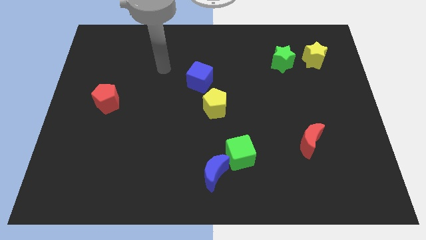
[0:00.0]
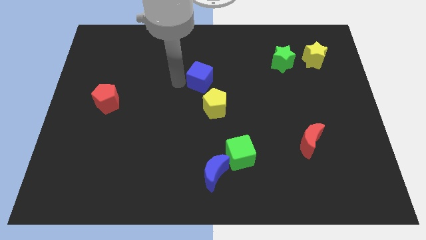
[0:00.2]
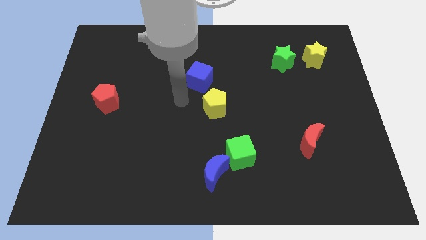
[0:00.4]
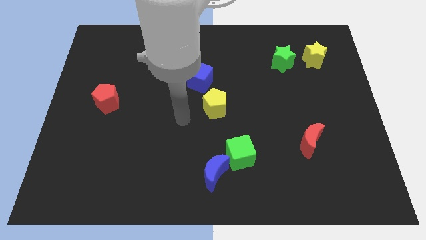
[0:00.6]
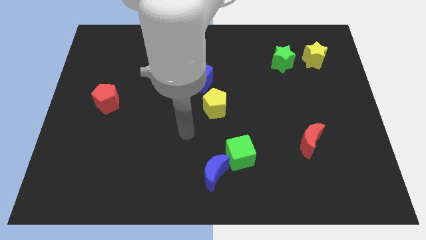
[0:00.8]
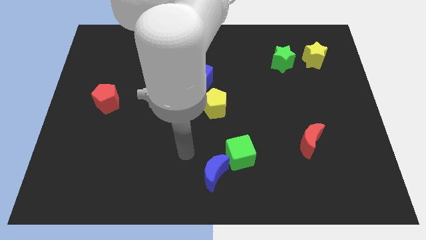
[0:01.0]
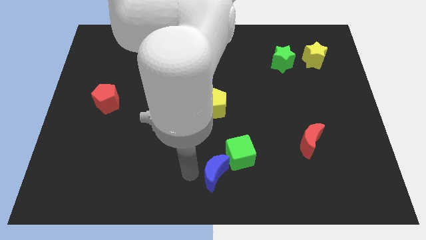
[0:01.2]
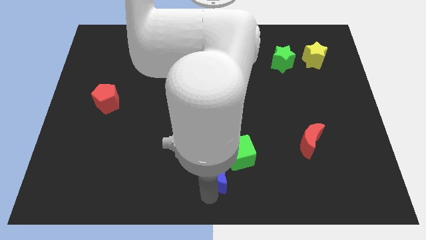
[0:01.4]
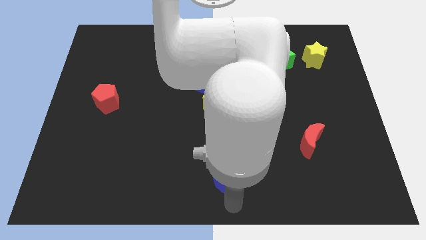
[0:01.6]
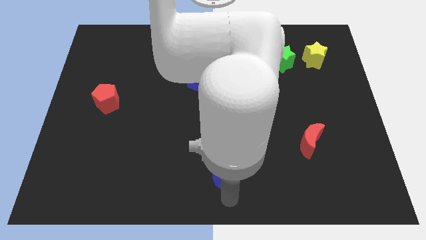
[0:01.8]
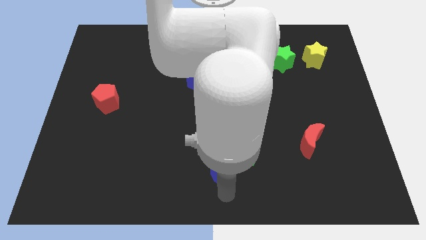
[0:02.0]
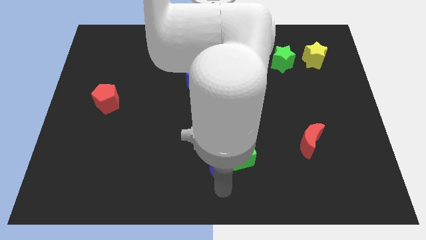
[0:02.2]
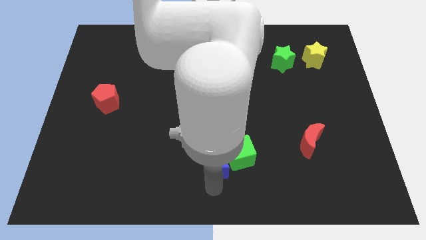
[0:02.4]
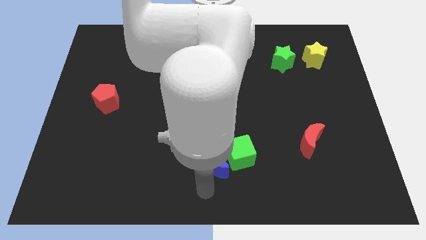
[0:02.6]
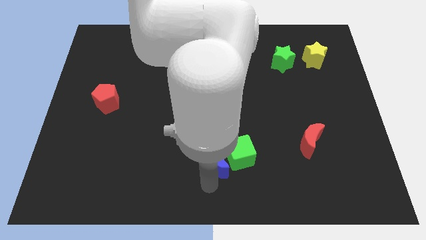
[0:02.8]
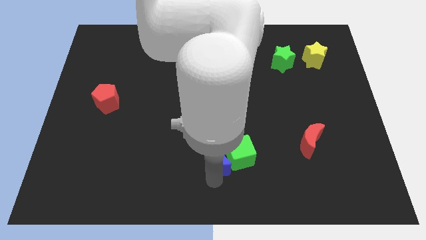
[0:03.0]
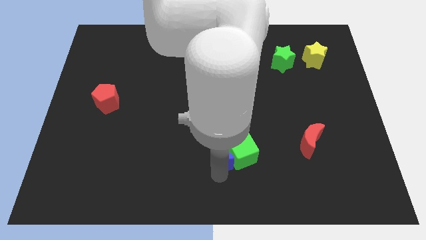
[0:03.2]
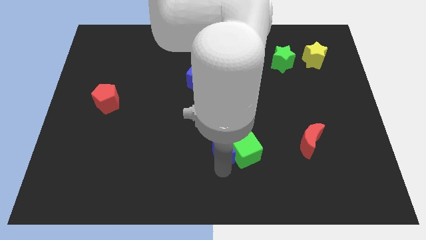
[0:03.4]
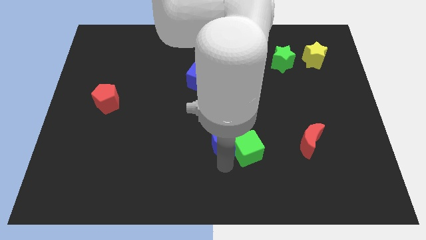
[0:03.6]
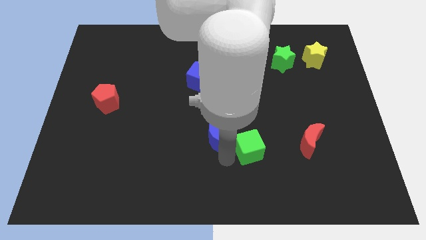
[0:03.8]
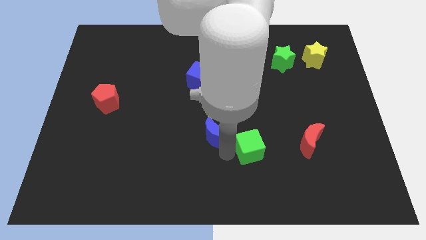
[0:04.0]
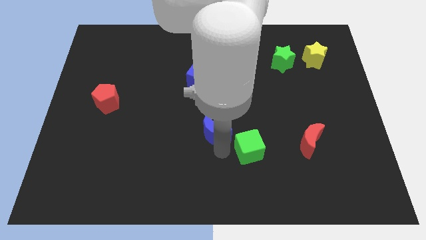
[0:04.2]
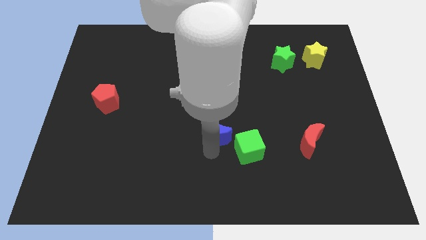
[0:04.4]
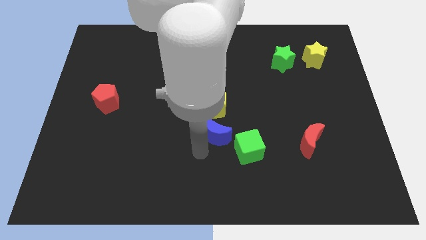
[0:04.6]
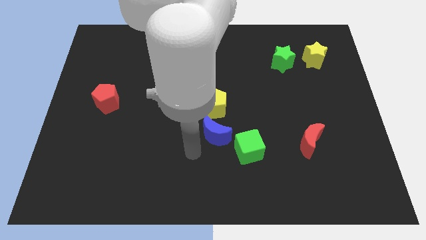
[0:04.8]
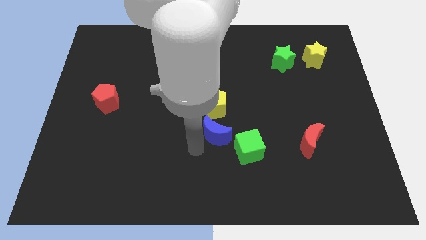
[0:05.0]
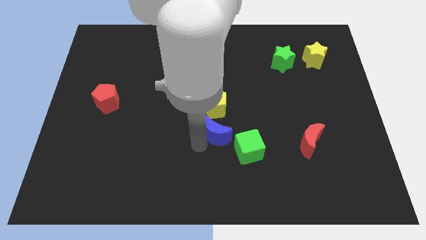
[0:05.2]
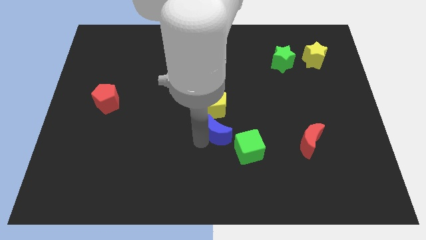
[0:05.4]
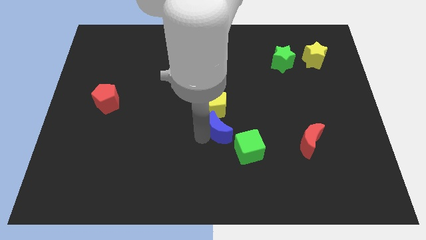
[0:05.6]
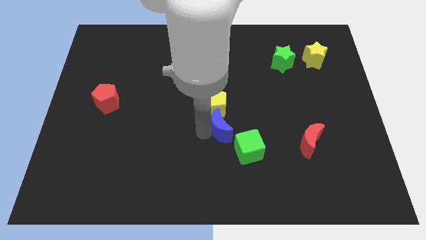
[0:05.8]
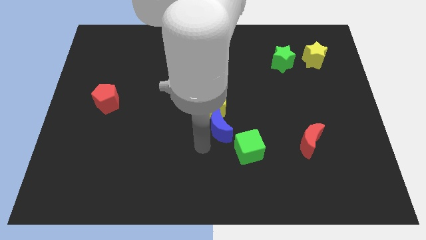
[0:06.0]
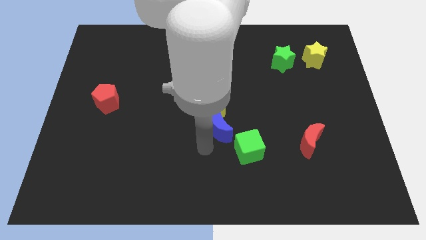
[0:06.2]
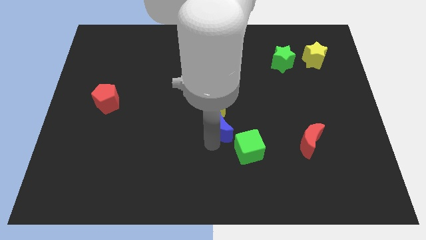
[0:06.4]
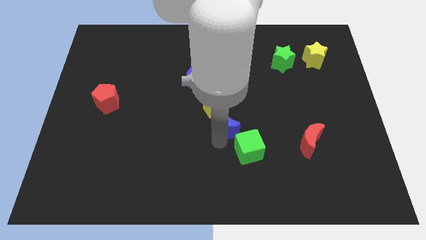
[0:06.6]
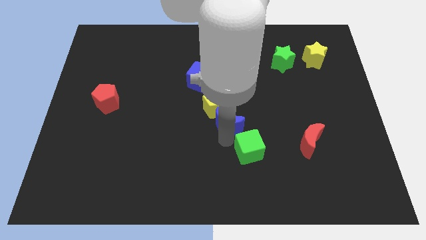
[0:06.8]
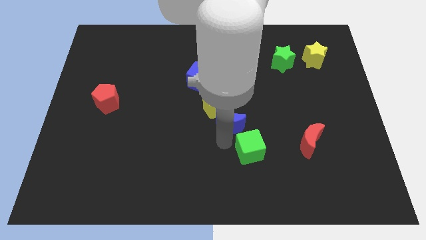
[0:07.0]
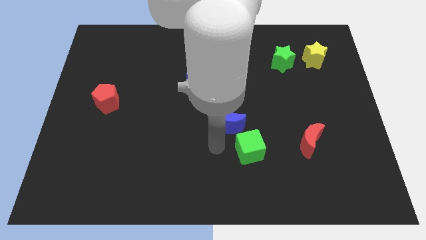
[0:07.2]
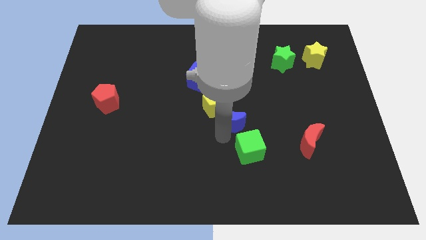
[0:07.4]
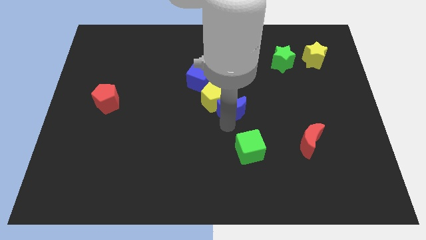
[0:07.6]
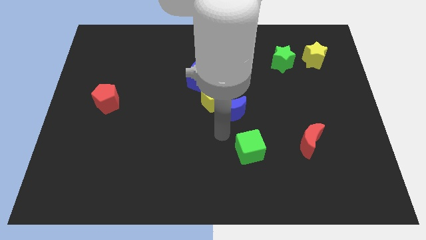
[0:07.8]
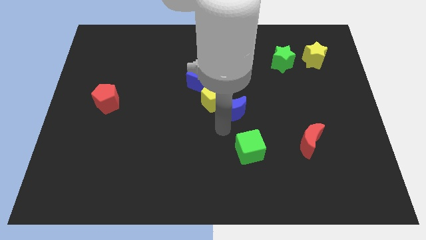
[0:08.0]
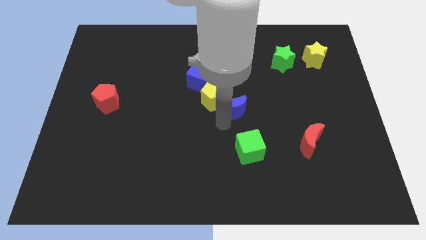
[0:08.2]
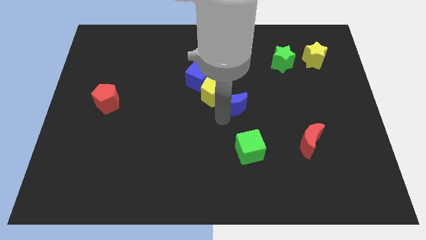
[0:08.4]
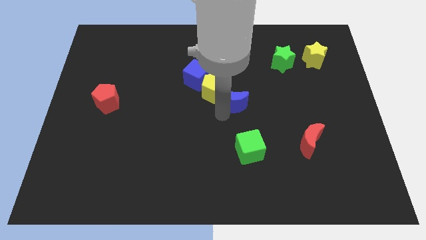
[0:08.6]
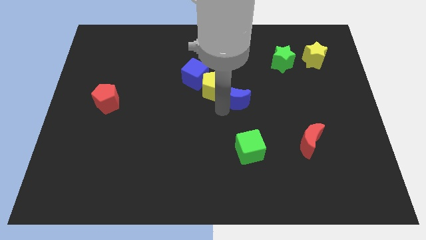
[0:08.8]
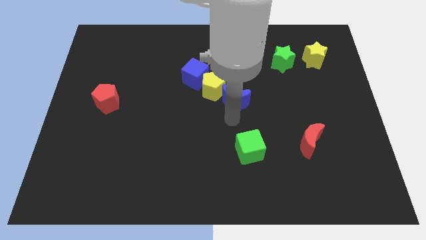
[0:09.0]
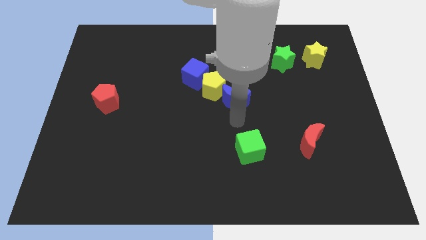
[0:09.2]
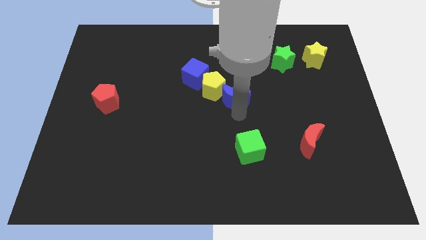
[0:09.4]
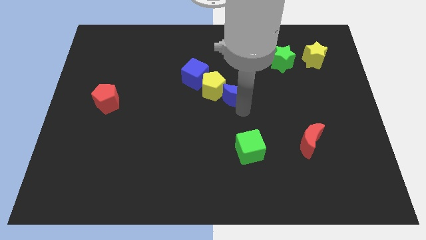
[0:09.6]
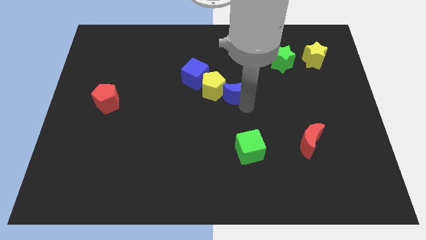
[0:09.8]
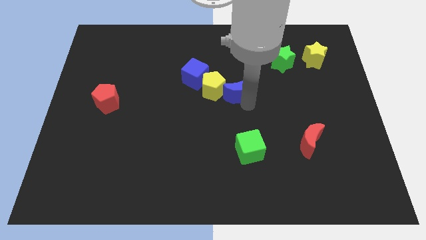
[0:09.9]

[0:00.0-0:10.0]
move the blue moon upwards

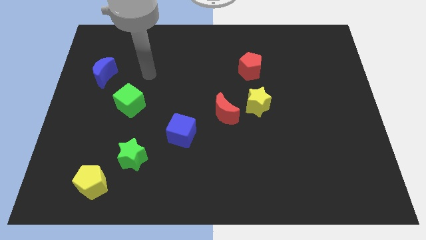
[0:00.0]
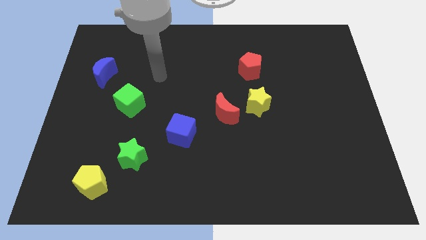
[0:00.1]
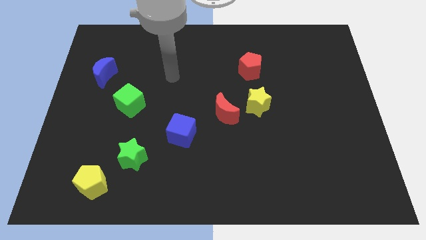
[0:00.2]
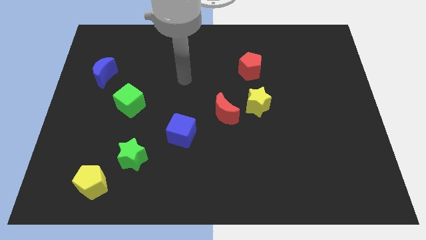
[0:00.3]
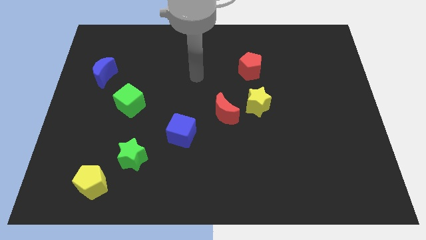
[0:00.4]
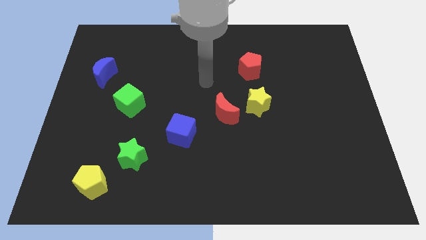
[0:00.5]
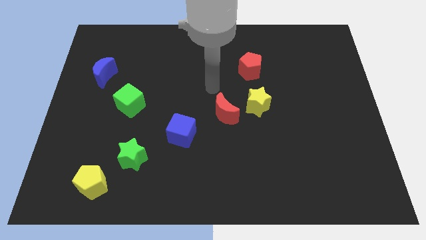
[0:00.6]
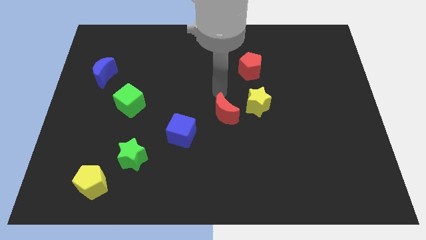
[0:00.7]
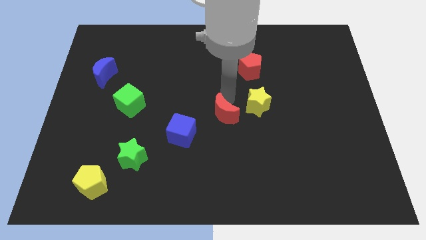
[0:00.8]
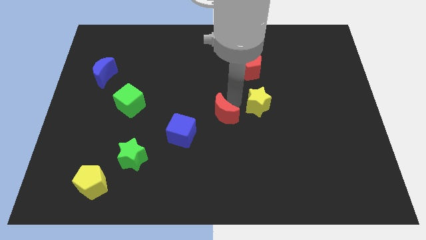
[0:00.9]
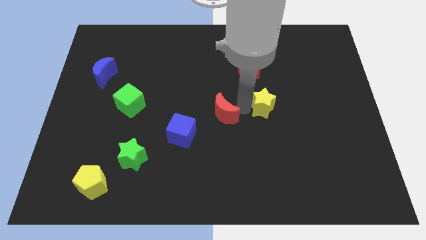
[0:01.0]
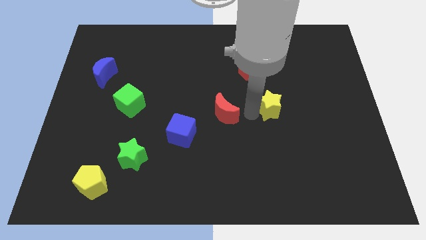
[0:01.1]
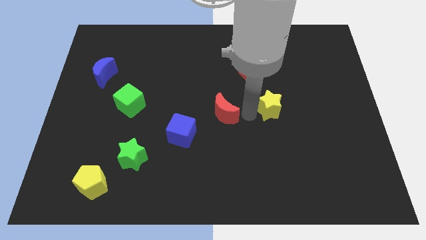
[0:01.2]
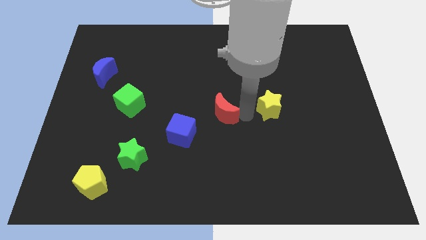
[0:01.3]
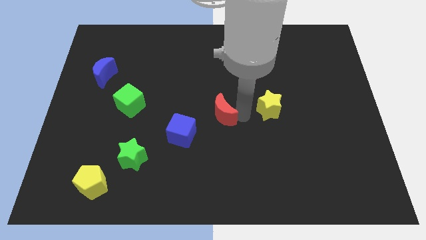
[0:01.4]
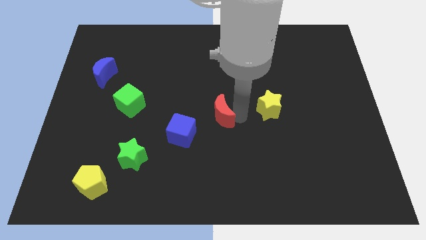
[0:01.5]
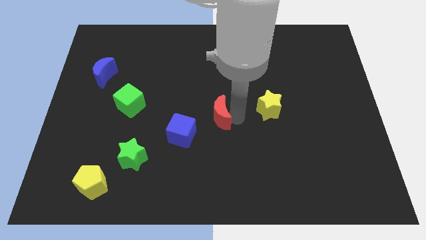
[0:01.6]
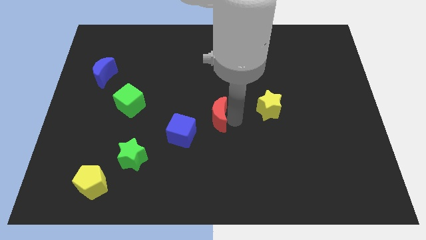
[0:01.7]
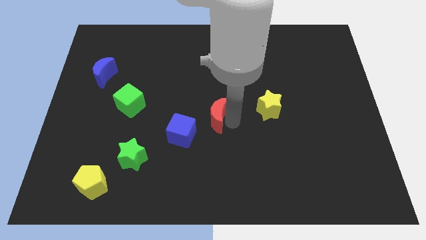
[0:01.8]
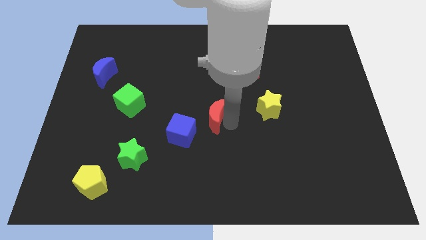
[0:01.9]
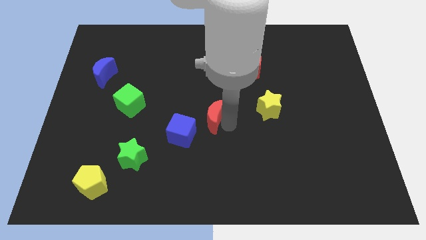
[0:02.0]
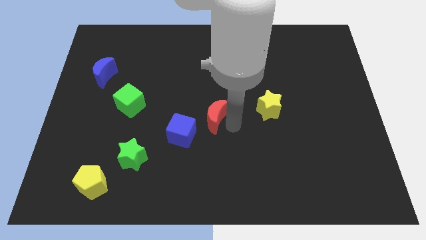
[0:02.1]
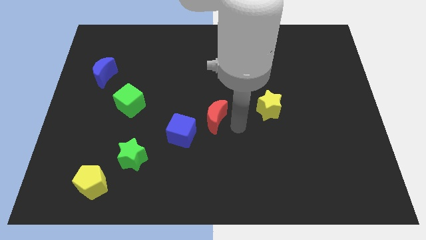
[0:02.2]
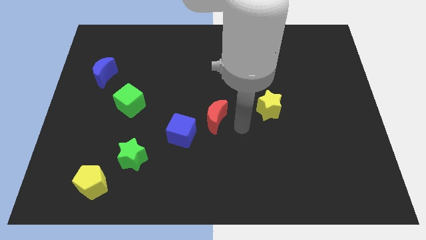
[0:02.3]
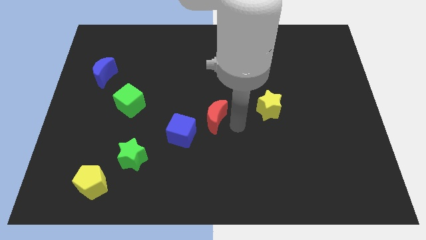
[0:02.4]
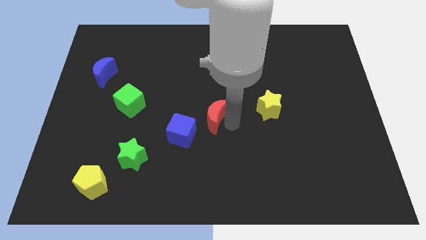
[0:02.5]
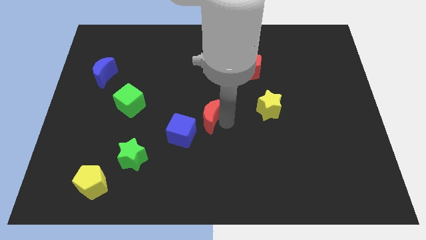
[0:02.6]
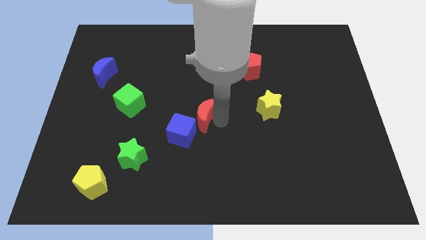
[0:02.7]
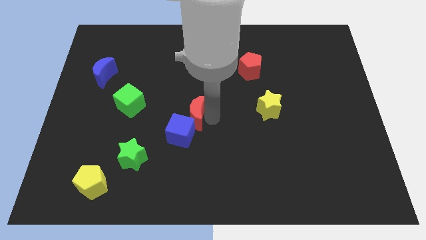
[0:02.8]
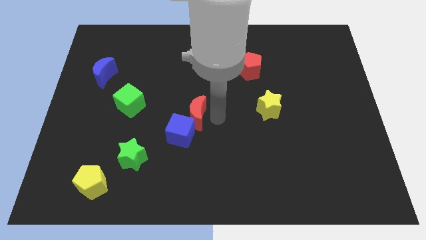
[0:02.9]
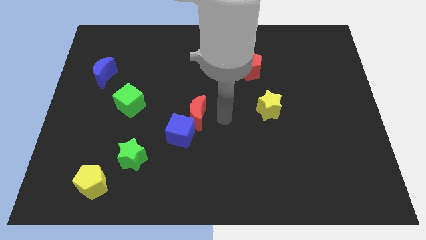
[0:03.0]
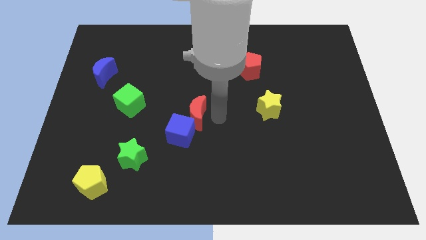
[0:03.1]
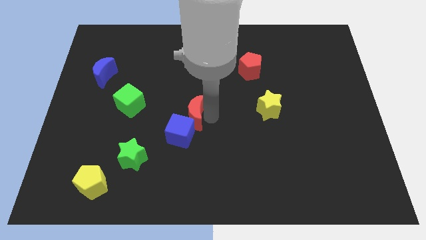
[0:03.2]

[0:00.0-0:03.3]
move the red moon a bit left
